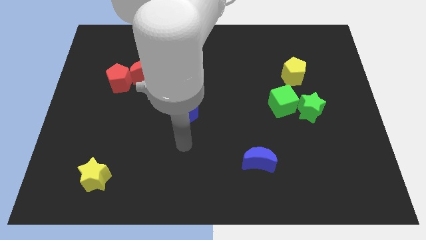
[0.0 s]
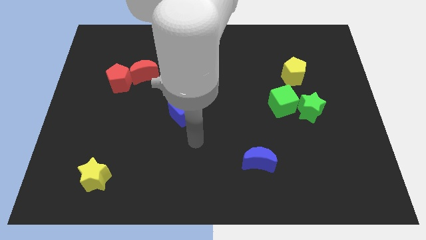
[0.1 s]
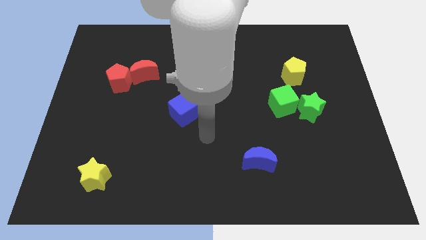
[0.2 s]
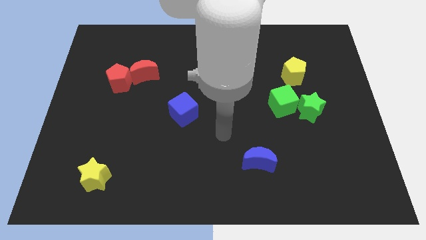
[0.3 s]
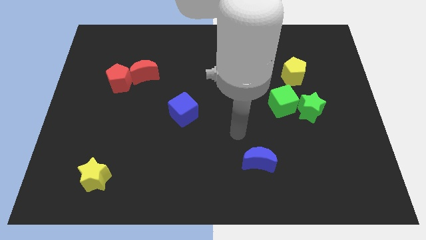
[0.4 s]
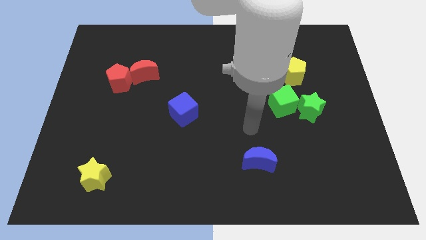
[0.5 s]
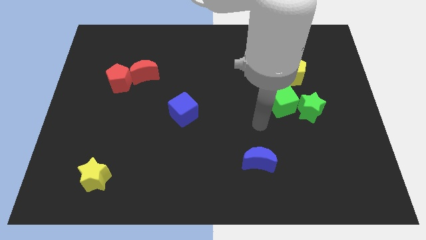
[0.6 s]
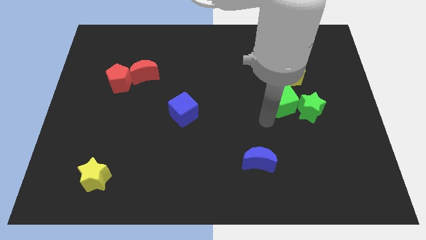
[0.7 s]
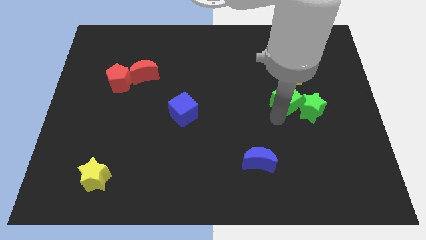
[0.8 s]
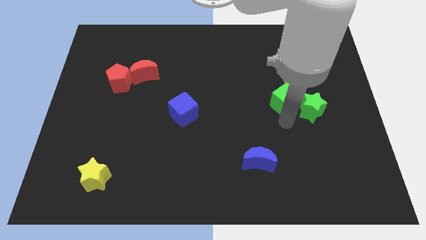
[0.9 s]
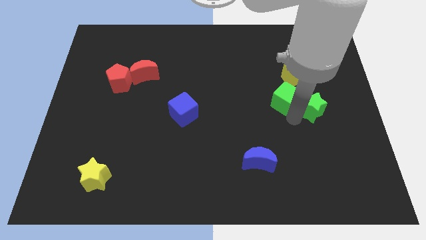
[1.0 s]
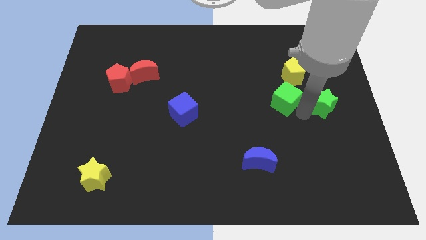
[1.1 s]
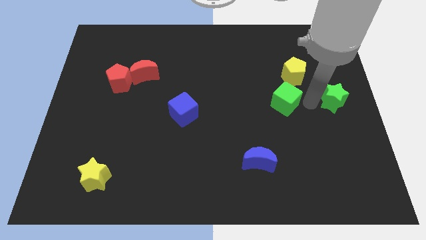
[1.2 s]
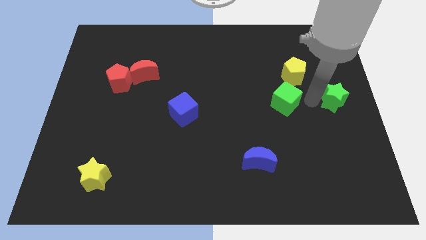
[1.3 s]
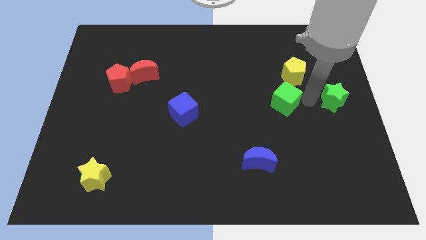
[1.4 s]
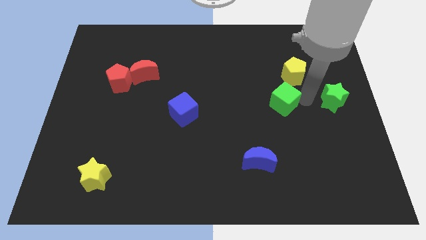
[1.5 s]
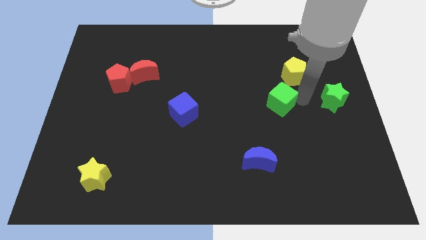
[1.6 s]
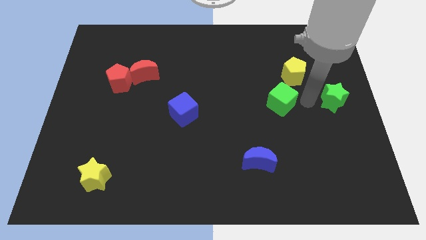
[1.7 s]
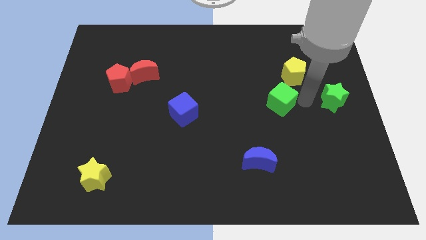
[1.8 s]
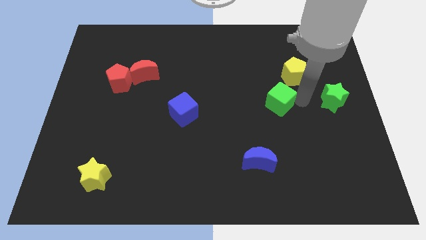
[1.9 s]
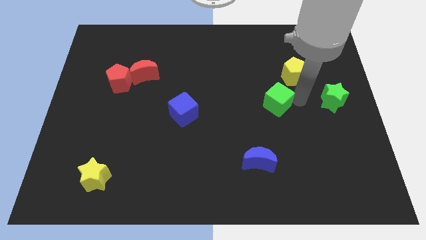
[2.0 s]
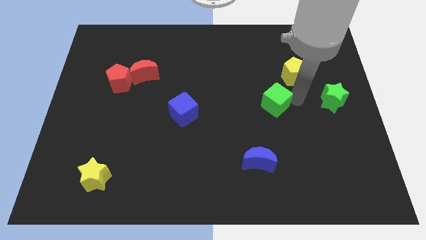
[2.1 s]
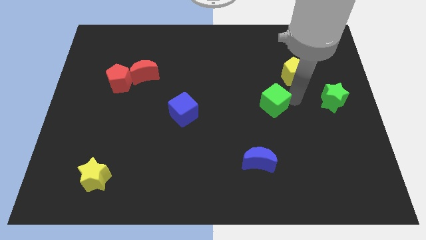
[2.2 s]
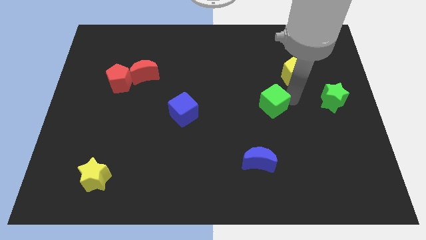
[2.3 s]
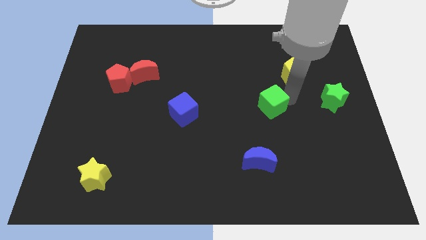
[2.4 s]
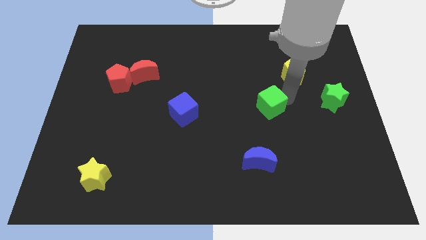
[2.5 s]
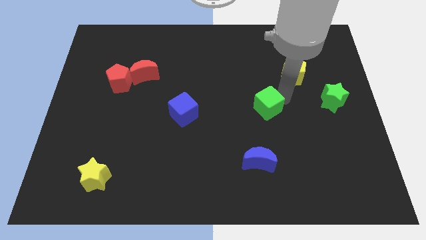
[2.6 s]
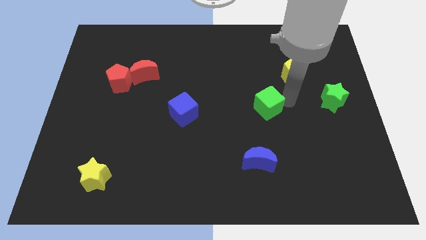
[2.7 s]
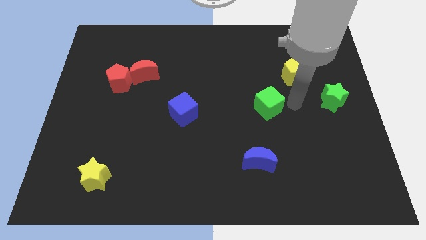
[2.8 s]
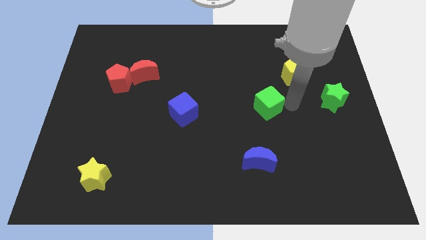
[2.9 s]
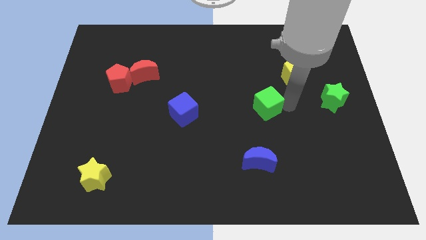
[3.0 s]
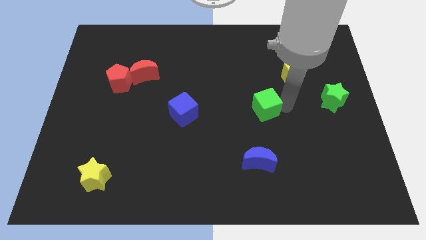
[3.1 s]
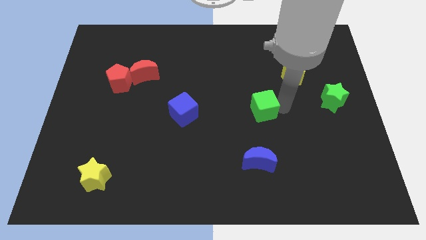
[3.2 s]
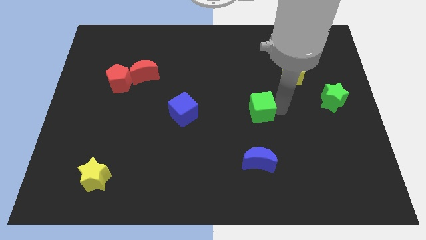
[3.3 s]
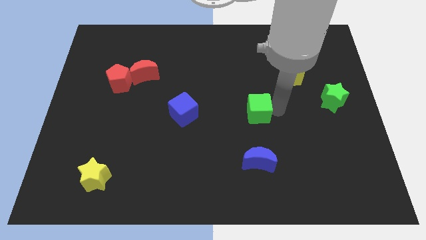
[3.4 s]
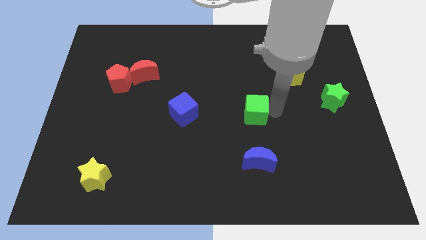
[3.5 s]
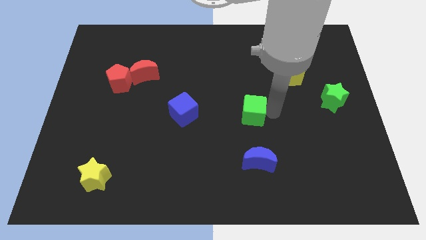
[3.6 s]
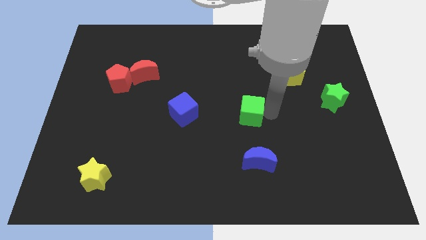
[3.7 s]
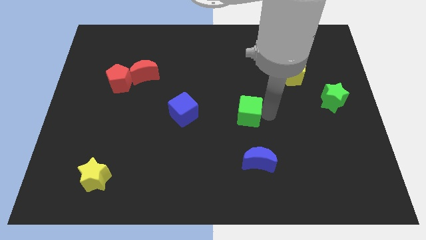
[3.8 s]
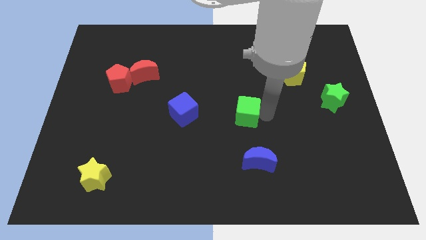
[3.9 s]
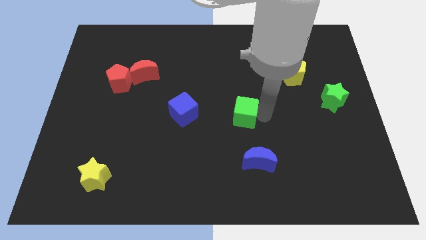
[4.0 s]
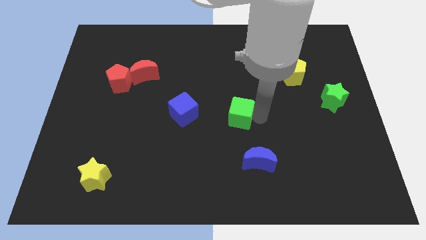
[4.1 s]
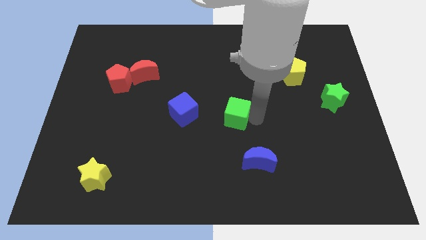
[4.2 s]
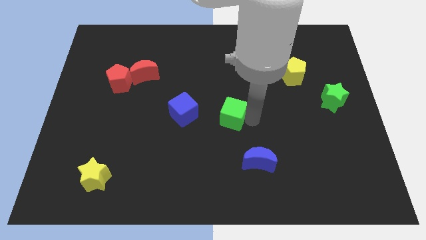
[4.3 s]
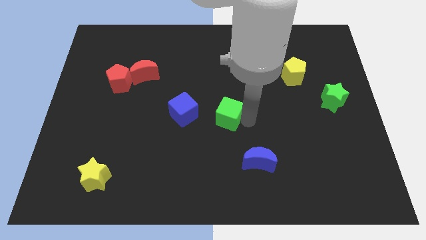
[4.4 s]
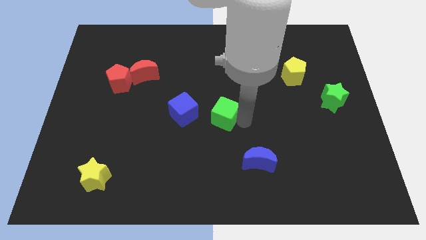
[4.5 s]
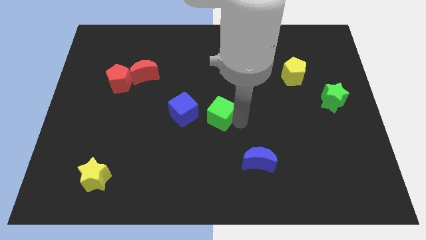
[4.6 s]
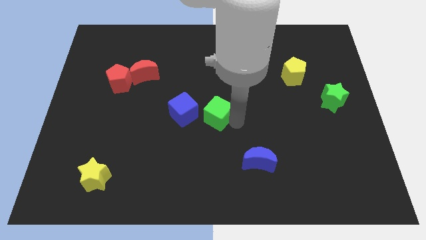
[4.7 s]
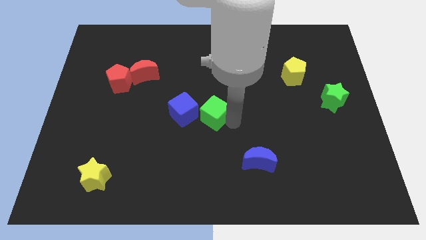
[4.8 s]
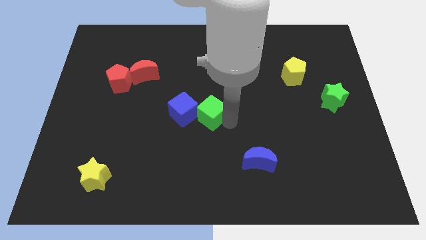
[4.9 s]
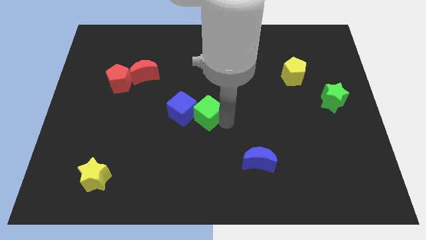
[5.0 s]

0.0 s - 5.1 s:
slide the green cube to the top right side of the blue cube

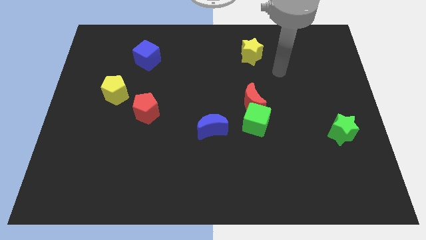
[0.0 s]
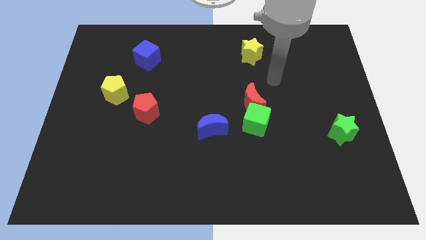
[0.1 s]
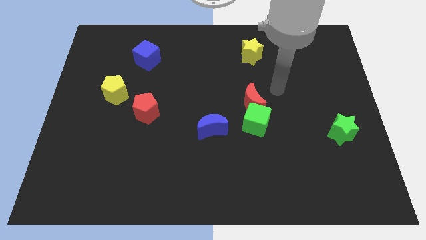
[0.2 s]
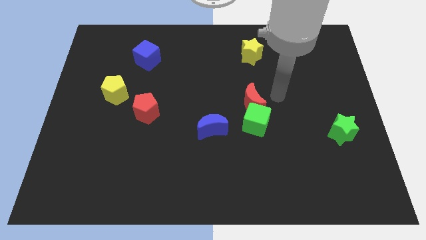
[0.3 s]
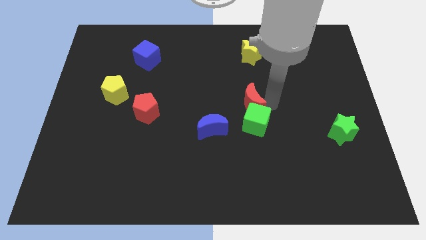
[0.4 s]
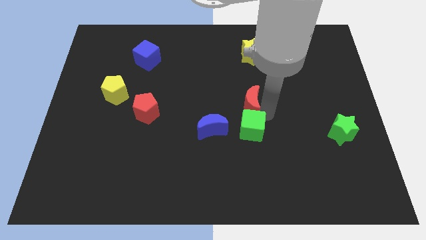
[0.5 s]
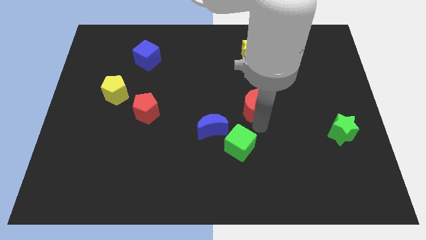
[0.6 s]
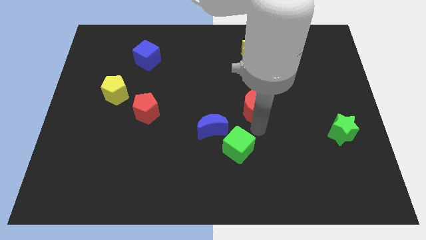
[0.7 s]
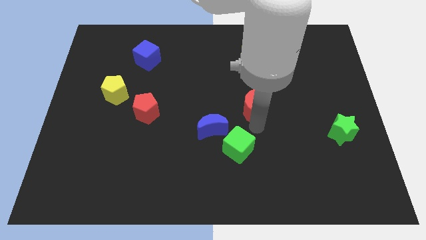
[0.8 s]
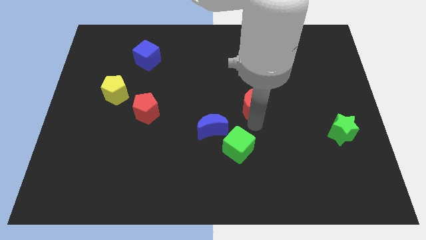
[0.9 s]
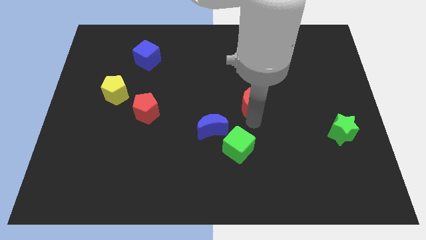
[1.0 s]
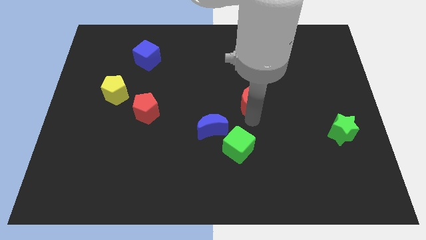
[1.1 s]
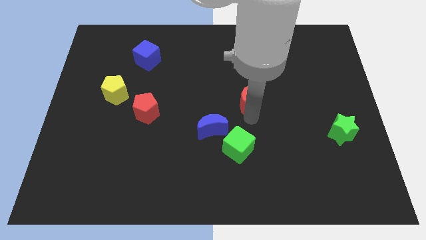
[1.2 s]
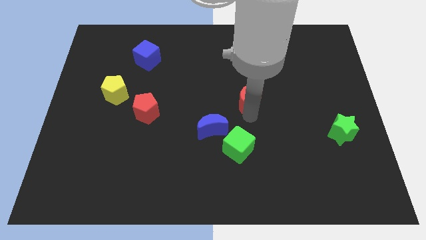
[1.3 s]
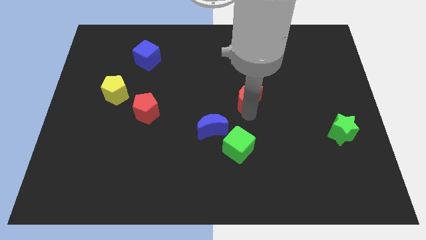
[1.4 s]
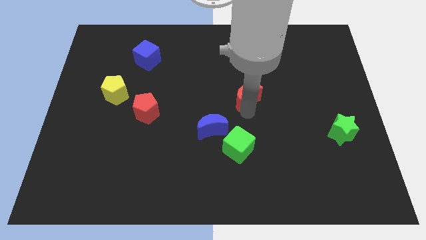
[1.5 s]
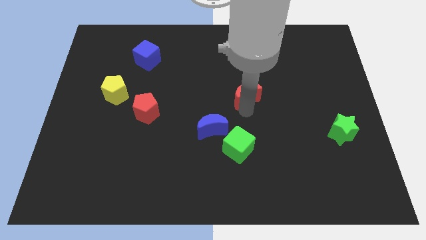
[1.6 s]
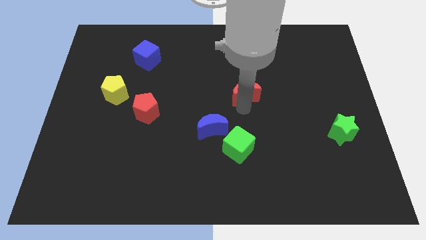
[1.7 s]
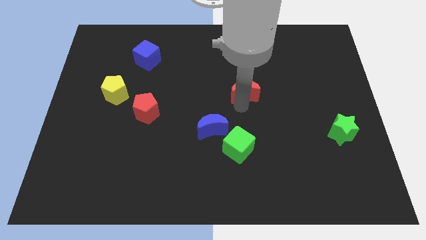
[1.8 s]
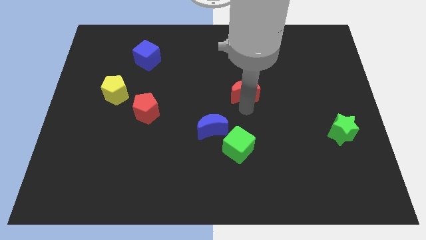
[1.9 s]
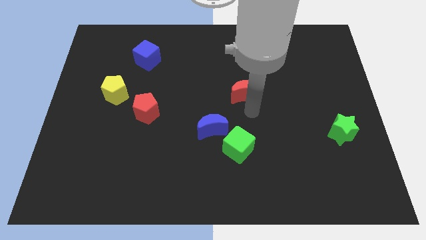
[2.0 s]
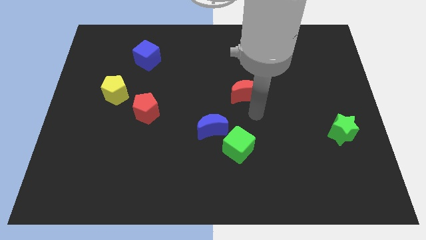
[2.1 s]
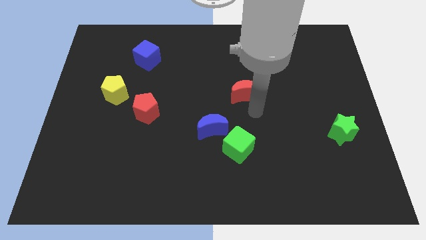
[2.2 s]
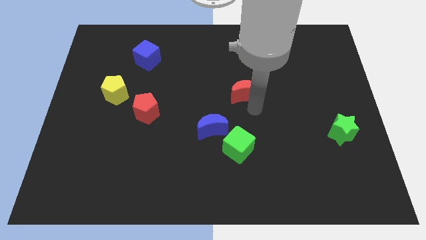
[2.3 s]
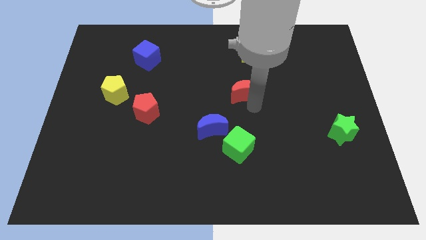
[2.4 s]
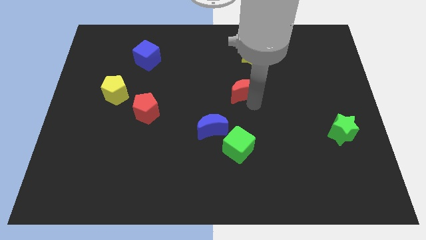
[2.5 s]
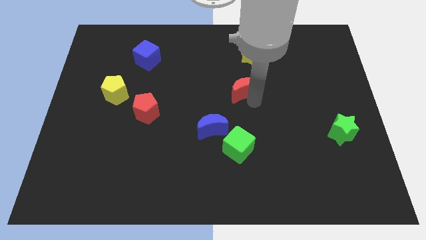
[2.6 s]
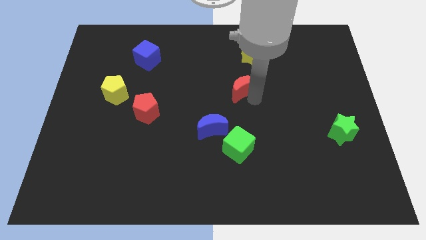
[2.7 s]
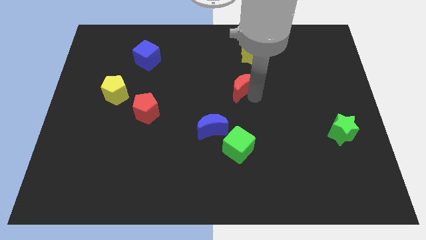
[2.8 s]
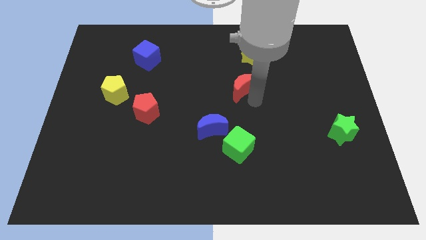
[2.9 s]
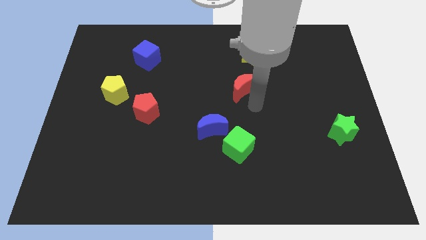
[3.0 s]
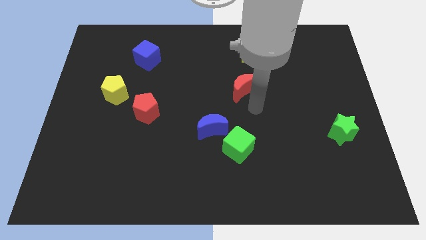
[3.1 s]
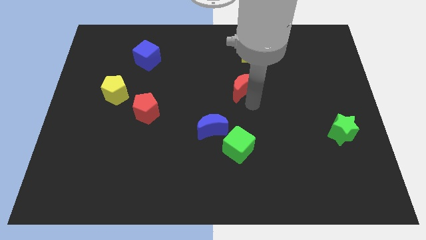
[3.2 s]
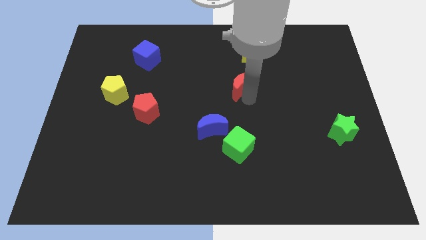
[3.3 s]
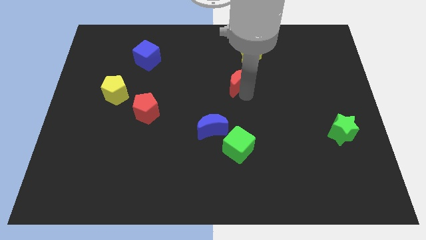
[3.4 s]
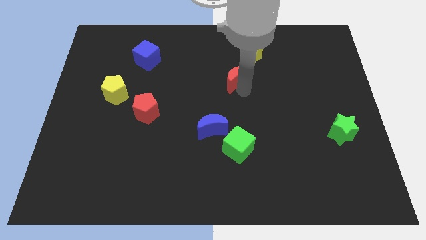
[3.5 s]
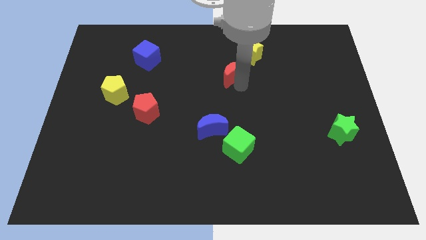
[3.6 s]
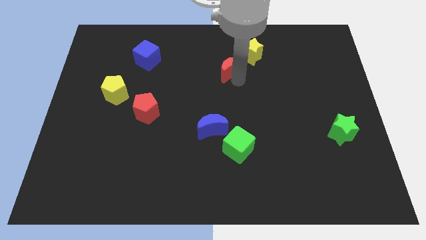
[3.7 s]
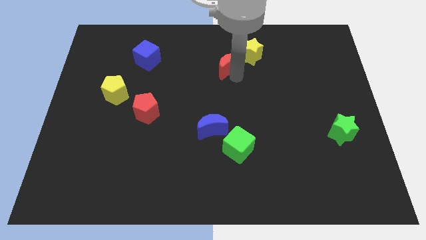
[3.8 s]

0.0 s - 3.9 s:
push the red moon to the left of the yellow star
